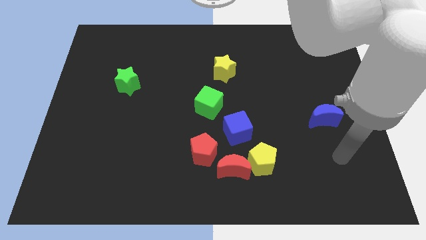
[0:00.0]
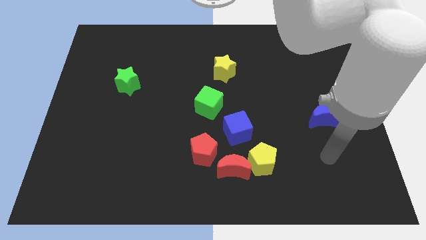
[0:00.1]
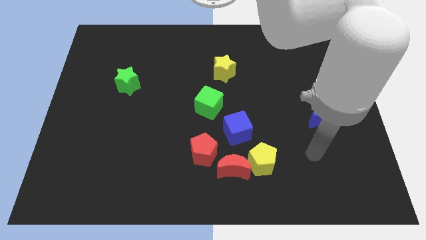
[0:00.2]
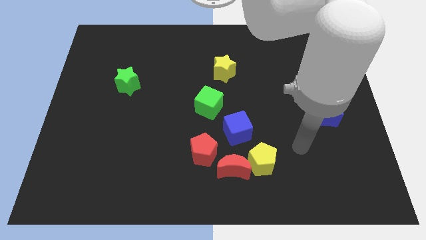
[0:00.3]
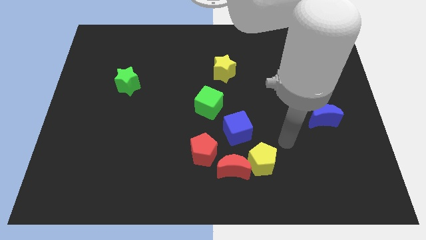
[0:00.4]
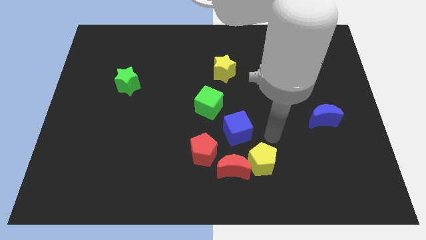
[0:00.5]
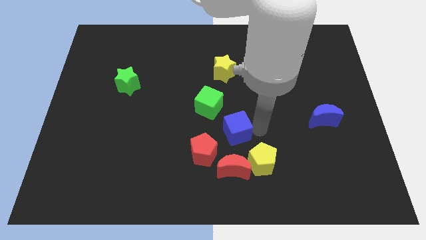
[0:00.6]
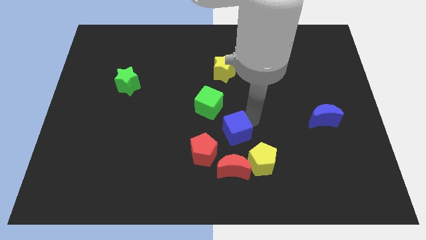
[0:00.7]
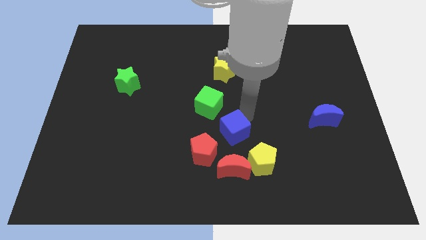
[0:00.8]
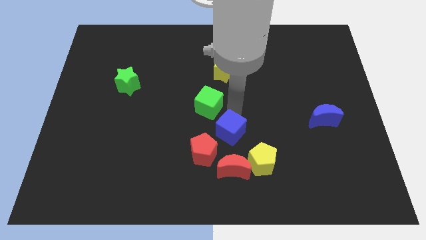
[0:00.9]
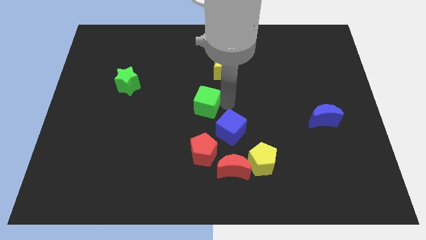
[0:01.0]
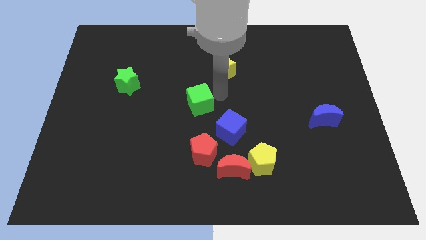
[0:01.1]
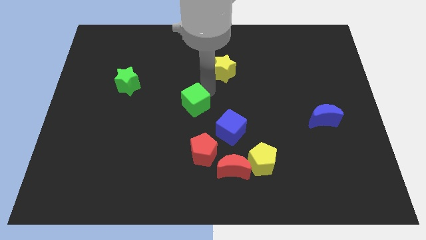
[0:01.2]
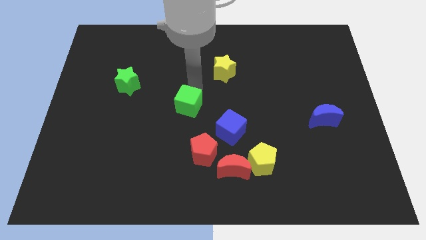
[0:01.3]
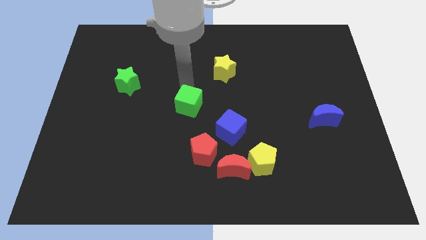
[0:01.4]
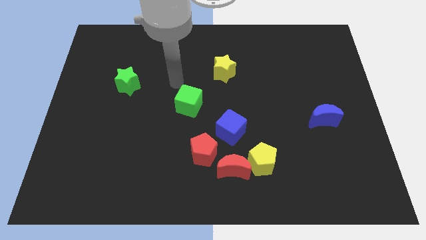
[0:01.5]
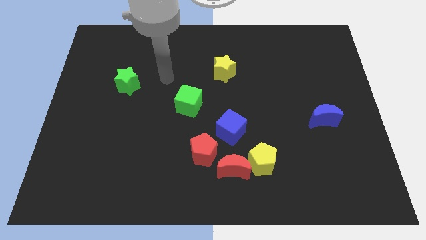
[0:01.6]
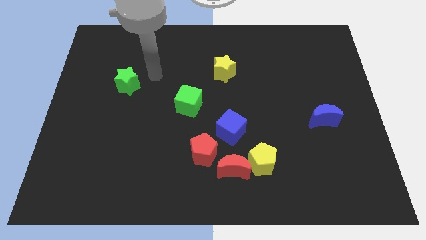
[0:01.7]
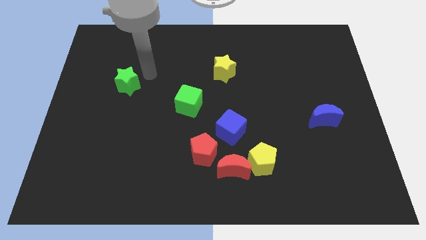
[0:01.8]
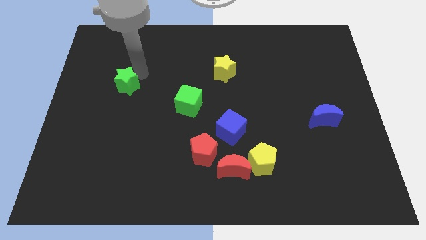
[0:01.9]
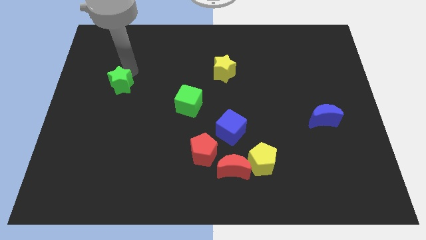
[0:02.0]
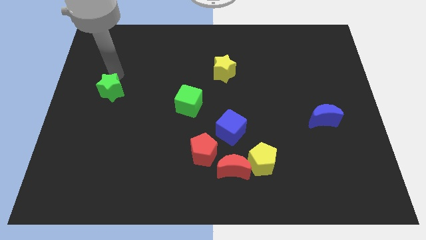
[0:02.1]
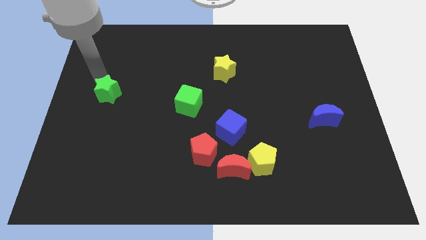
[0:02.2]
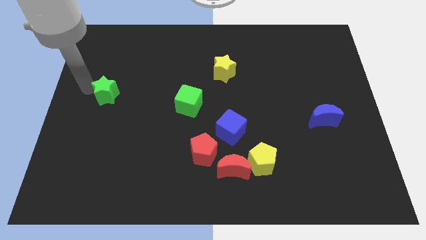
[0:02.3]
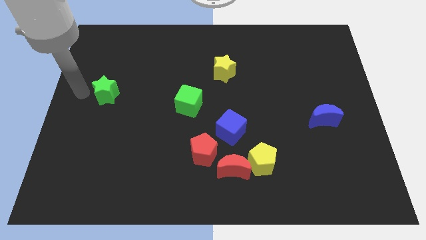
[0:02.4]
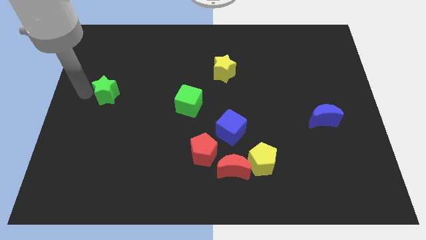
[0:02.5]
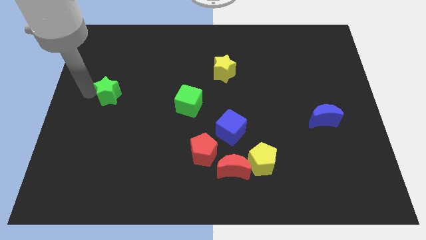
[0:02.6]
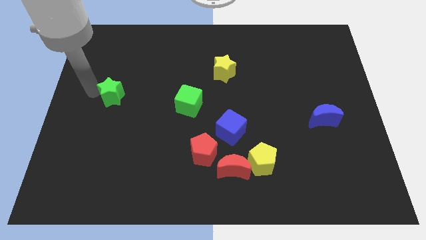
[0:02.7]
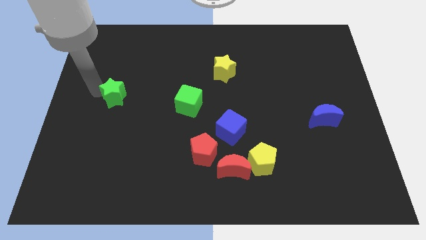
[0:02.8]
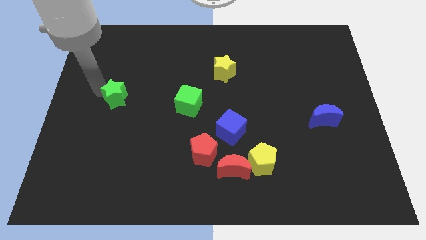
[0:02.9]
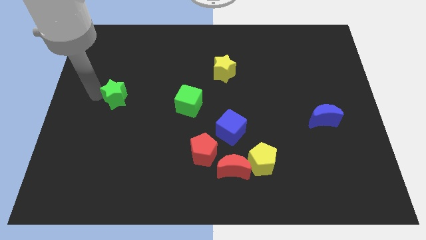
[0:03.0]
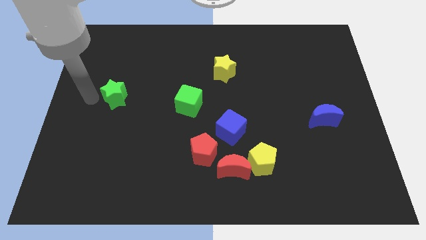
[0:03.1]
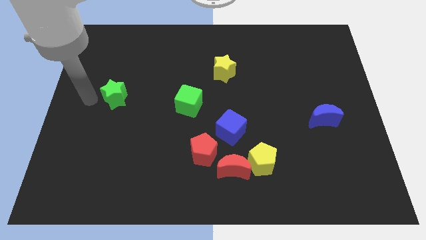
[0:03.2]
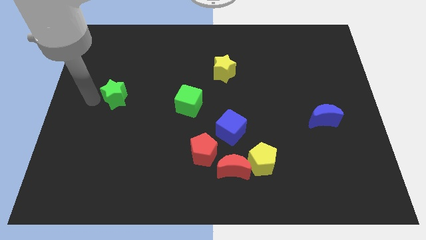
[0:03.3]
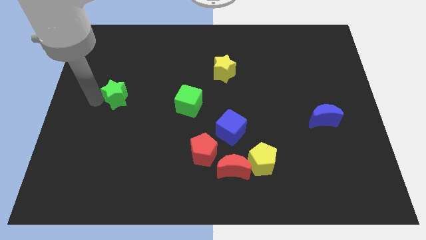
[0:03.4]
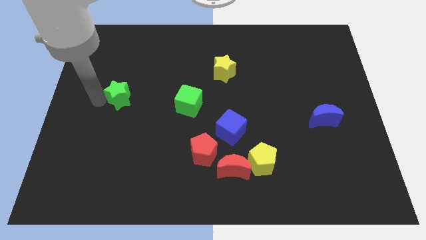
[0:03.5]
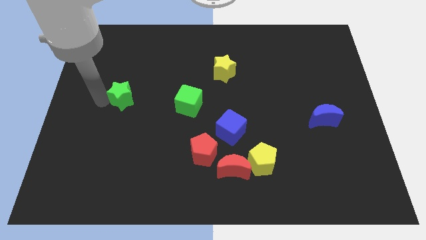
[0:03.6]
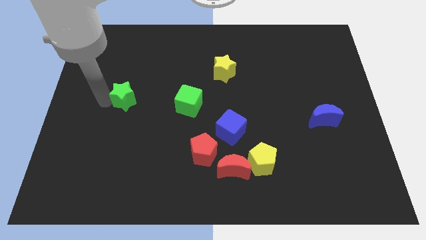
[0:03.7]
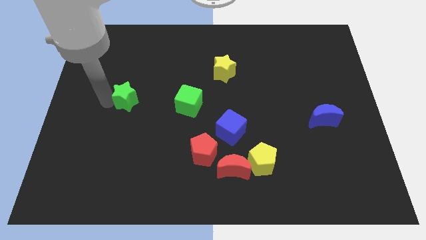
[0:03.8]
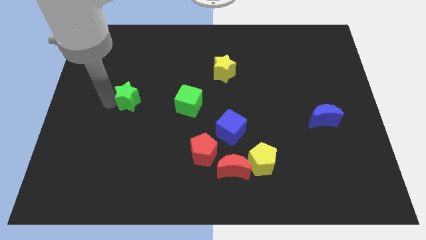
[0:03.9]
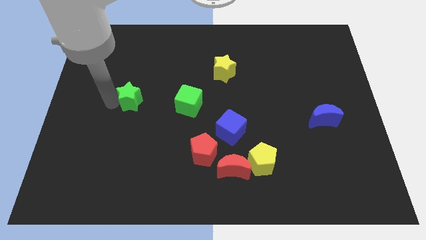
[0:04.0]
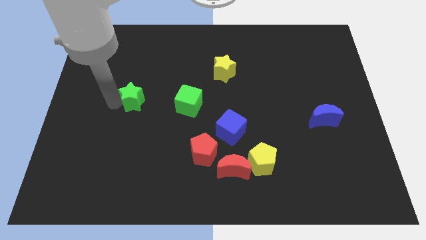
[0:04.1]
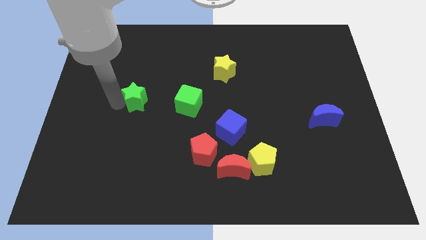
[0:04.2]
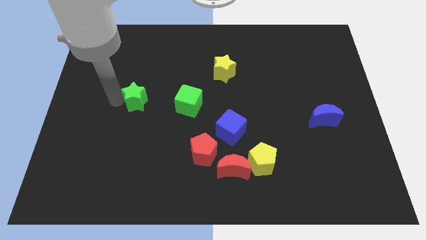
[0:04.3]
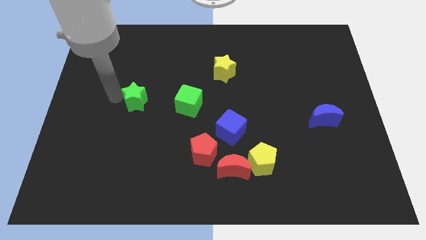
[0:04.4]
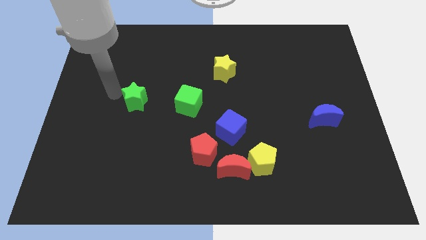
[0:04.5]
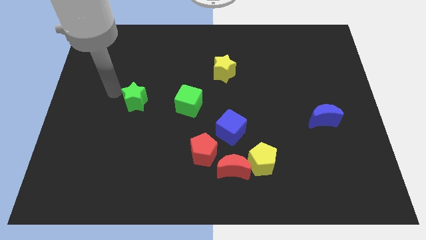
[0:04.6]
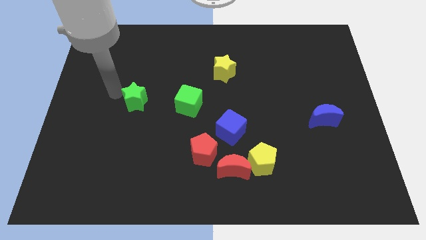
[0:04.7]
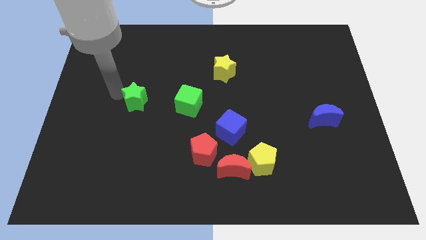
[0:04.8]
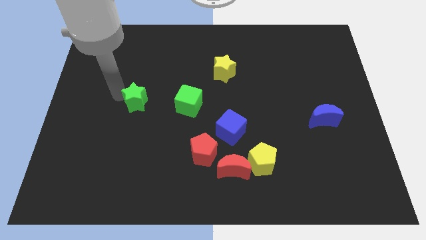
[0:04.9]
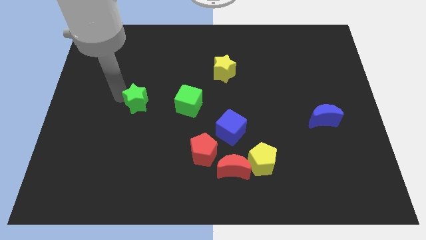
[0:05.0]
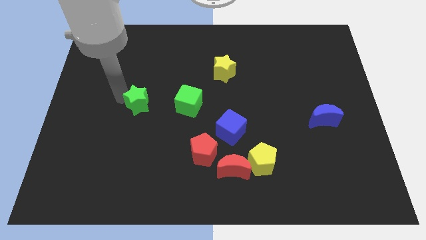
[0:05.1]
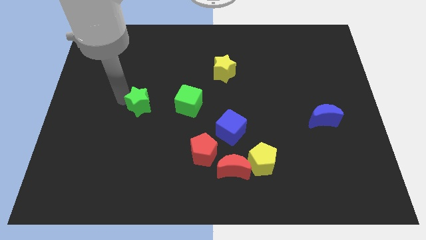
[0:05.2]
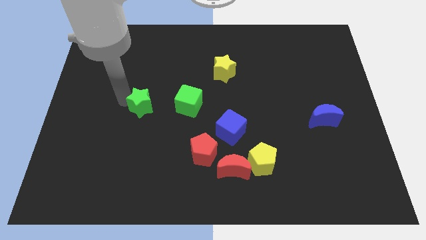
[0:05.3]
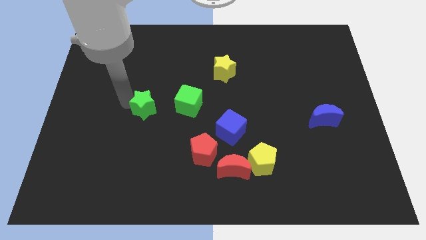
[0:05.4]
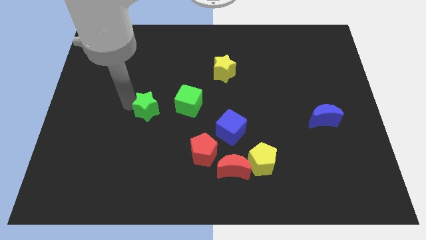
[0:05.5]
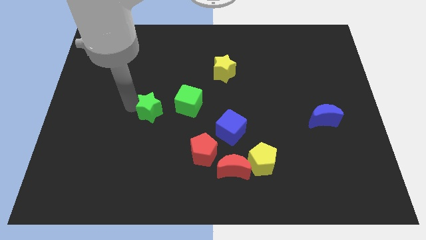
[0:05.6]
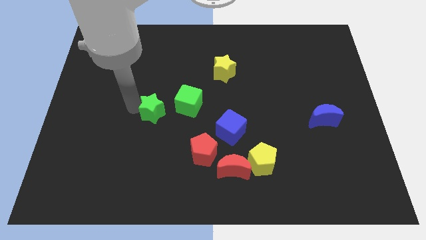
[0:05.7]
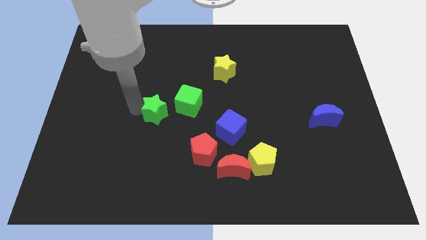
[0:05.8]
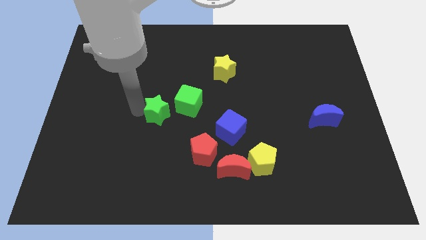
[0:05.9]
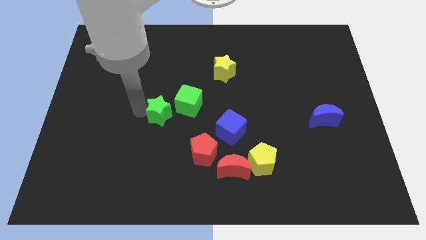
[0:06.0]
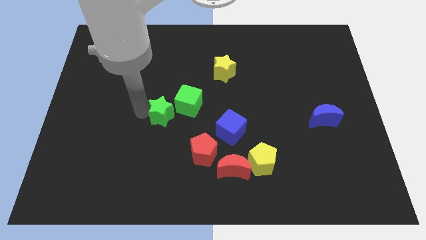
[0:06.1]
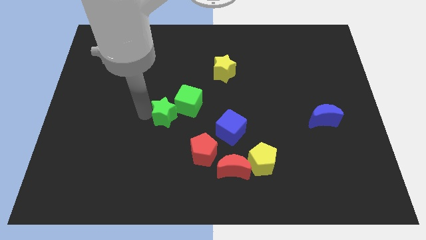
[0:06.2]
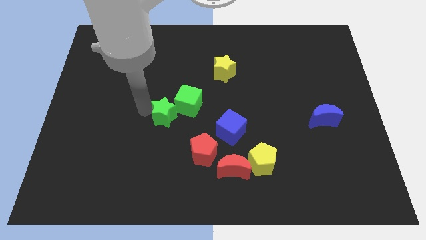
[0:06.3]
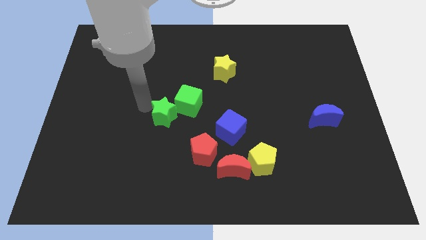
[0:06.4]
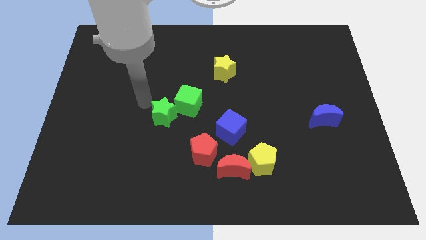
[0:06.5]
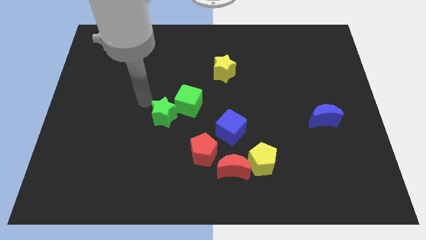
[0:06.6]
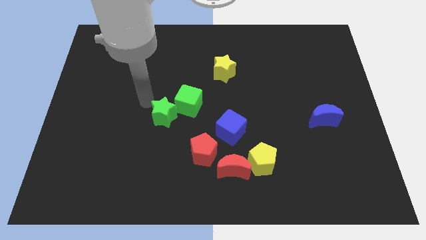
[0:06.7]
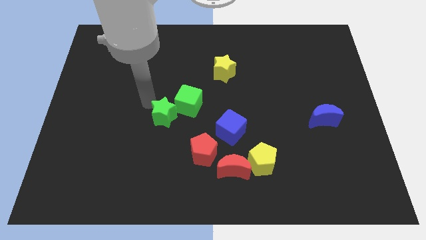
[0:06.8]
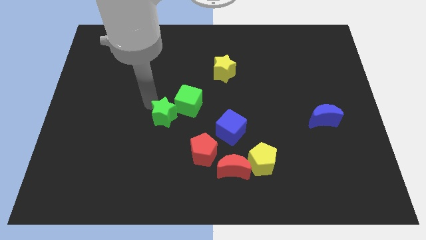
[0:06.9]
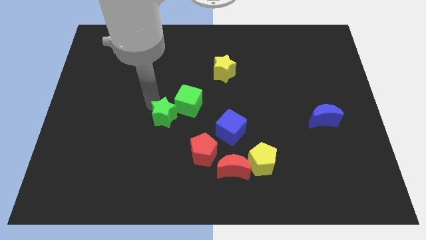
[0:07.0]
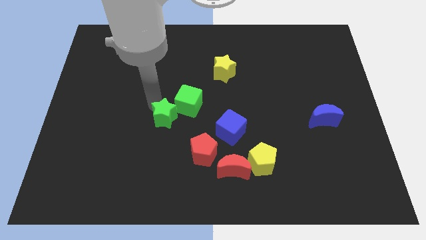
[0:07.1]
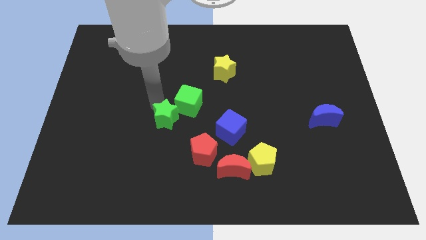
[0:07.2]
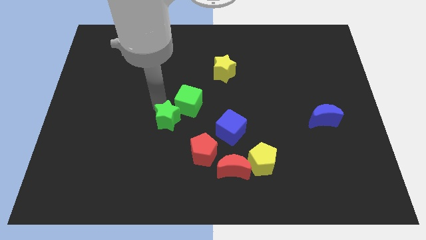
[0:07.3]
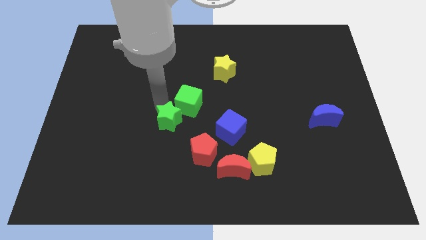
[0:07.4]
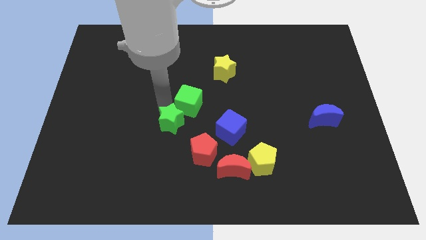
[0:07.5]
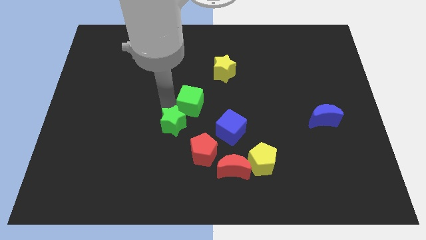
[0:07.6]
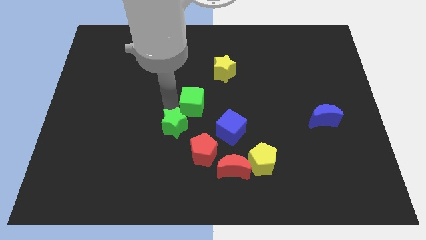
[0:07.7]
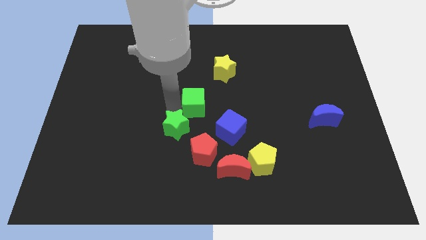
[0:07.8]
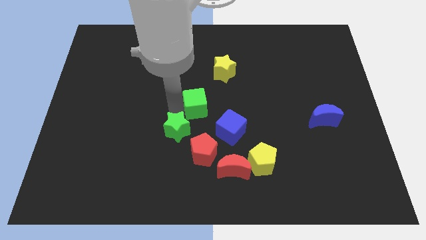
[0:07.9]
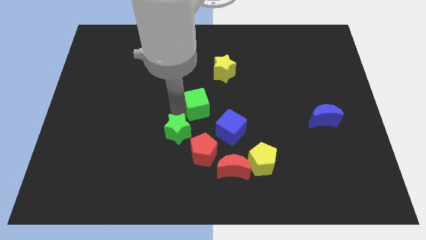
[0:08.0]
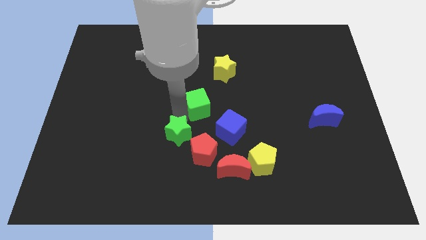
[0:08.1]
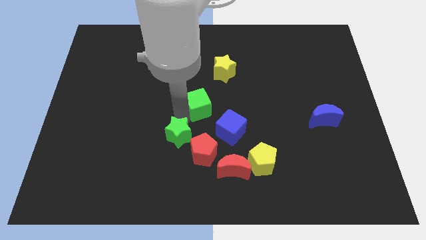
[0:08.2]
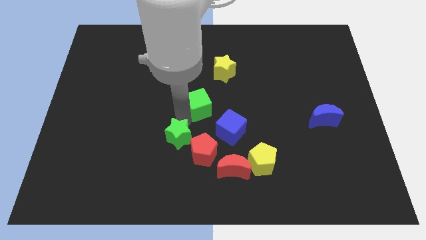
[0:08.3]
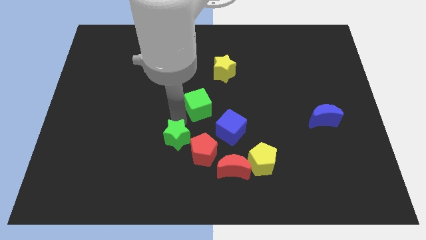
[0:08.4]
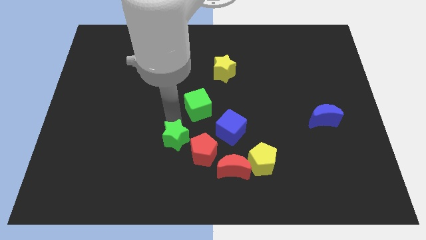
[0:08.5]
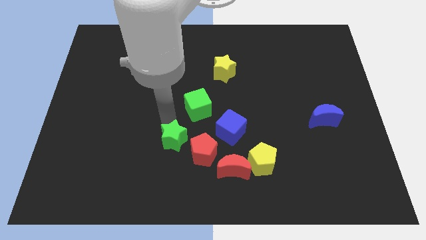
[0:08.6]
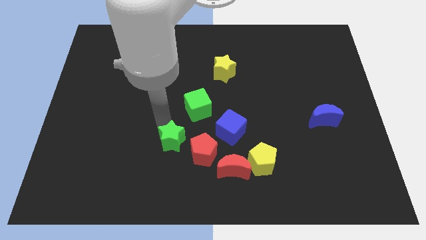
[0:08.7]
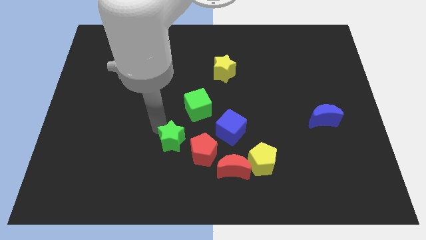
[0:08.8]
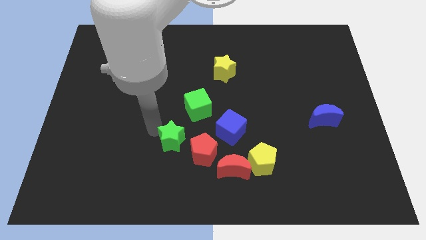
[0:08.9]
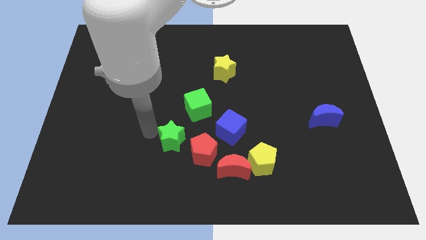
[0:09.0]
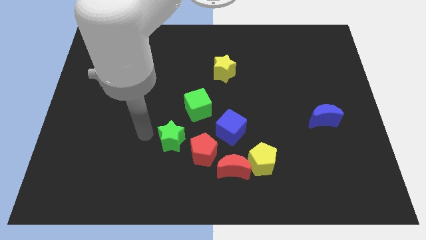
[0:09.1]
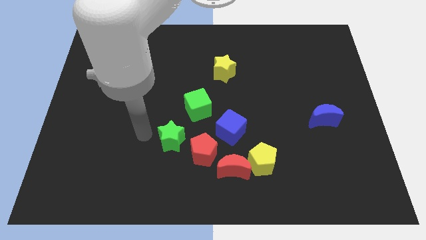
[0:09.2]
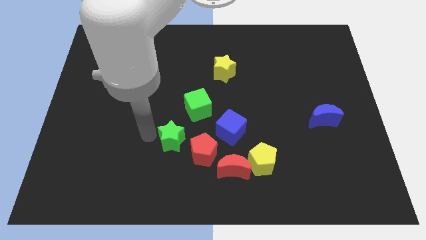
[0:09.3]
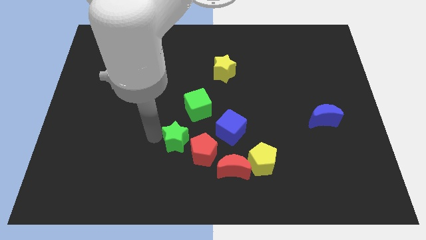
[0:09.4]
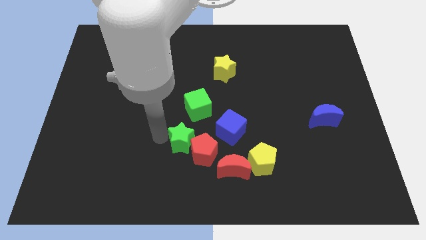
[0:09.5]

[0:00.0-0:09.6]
push the green star next to the red pentagon
